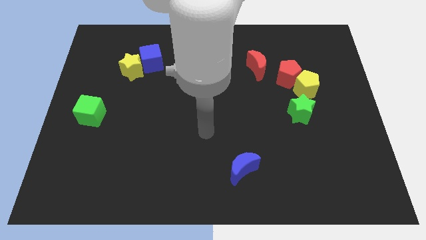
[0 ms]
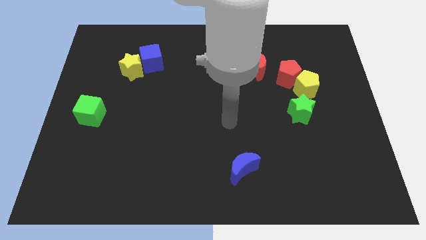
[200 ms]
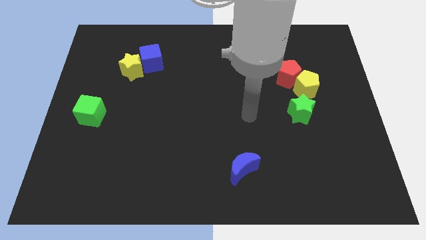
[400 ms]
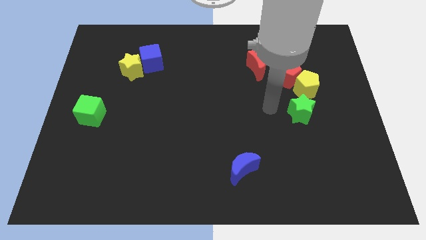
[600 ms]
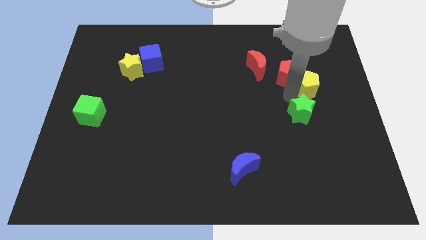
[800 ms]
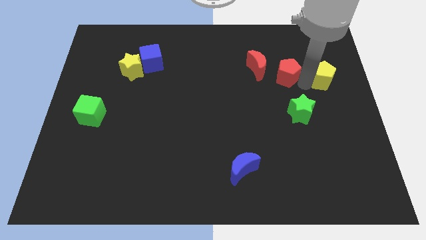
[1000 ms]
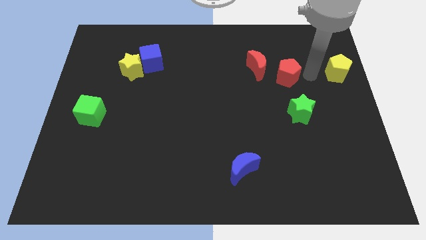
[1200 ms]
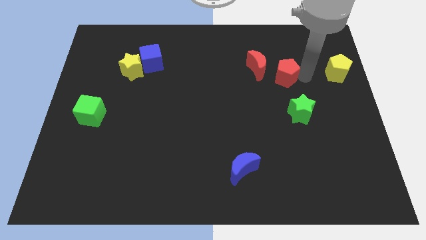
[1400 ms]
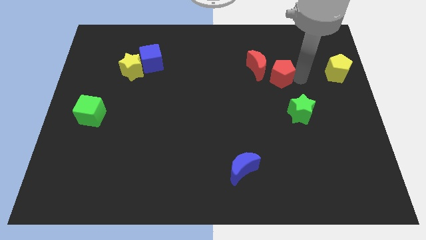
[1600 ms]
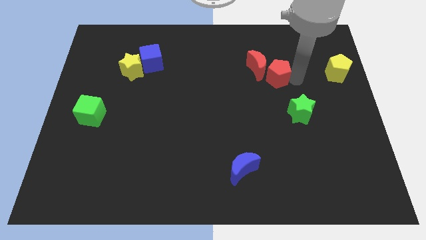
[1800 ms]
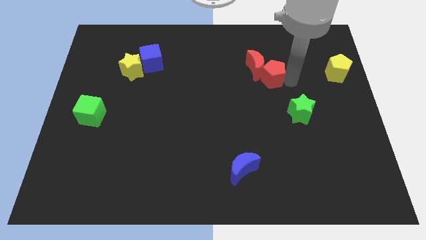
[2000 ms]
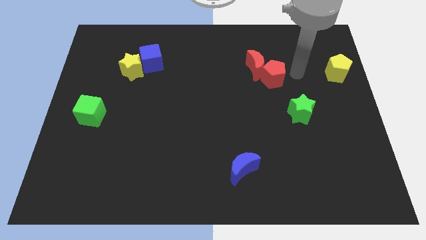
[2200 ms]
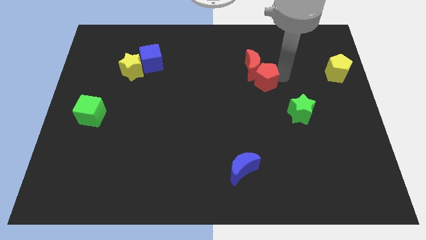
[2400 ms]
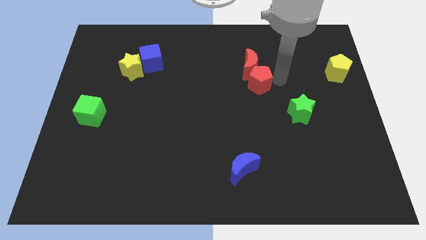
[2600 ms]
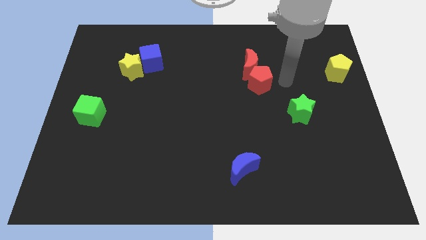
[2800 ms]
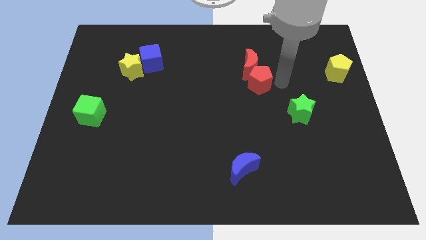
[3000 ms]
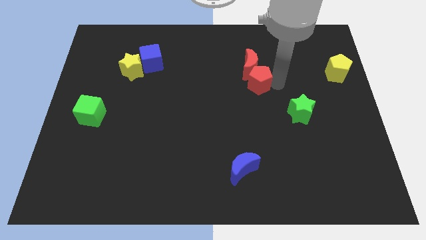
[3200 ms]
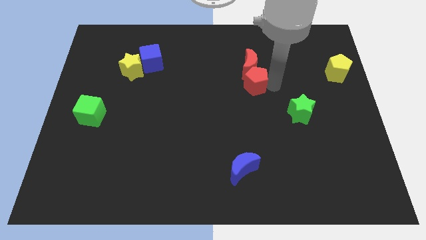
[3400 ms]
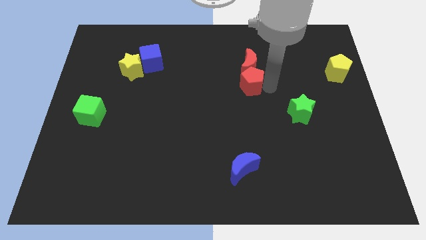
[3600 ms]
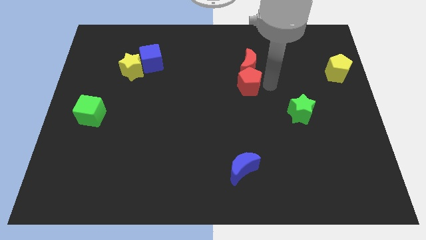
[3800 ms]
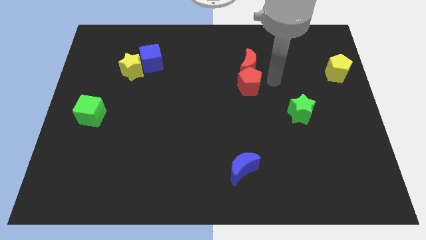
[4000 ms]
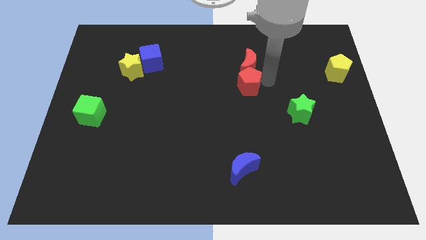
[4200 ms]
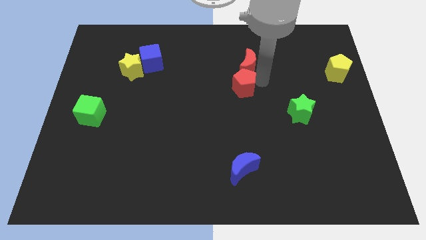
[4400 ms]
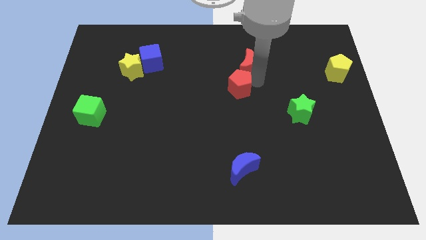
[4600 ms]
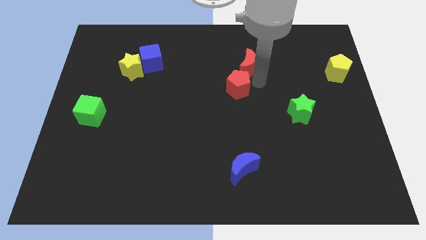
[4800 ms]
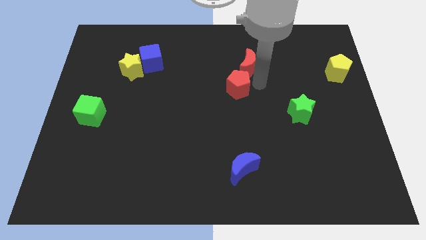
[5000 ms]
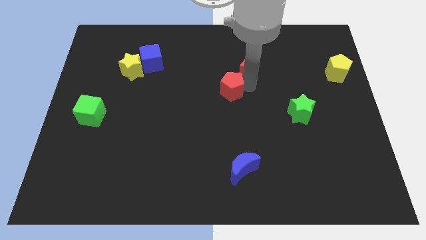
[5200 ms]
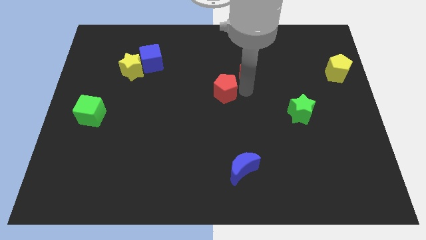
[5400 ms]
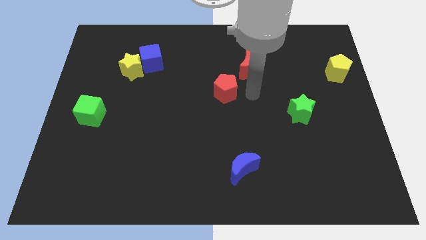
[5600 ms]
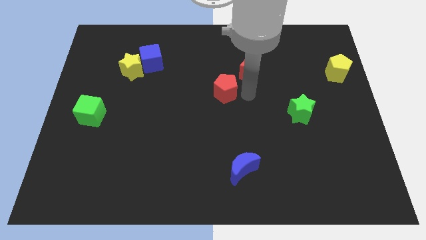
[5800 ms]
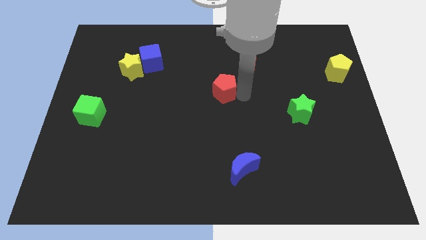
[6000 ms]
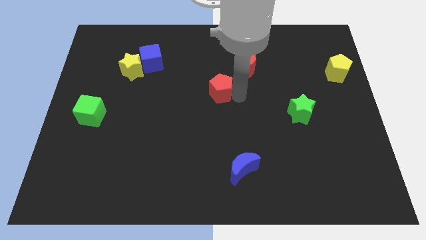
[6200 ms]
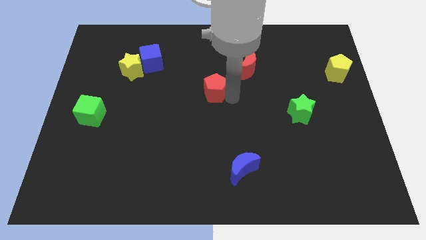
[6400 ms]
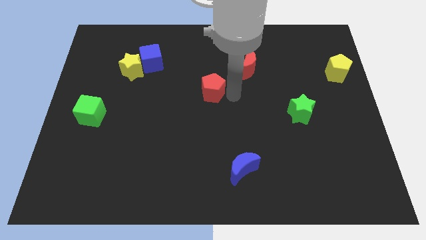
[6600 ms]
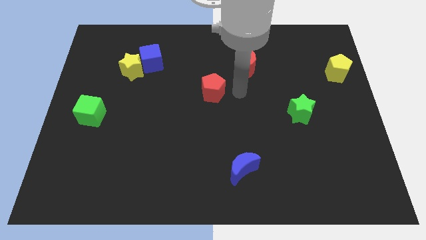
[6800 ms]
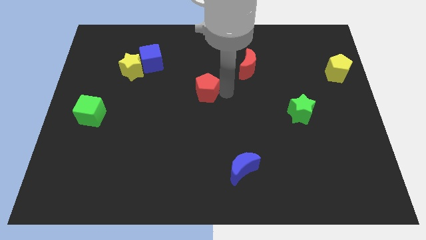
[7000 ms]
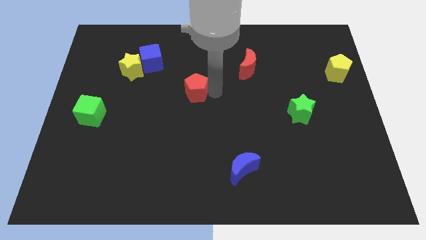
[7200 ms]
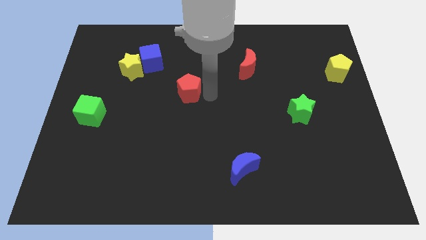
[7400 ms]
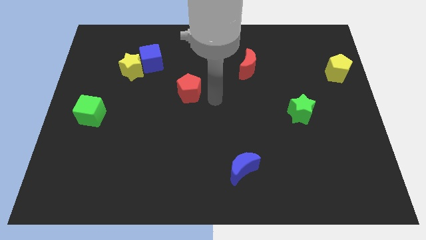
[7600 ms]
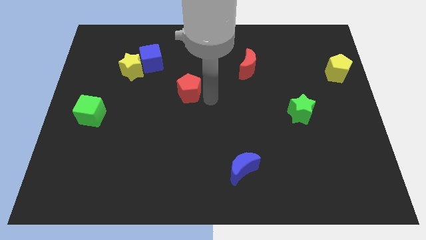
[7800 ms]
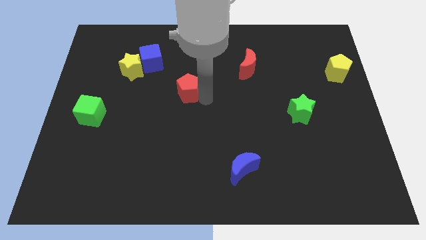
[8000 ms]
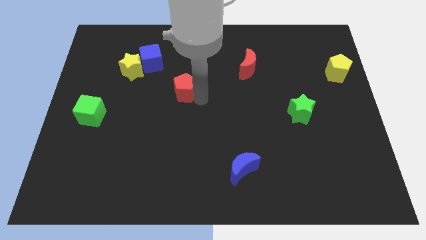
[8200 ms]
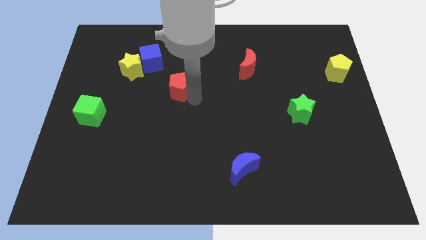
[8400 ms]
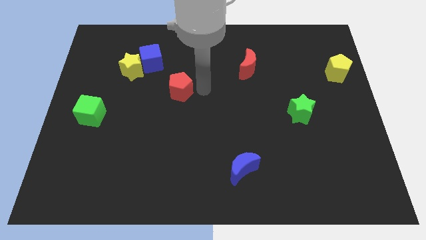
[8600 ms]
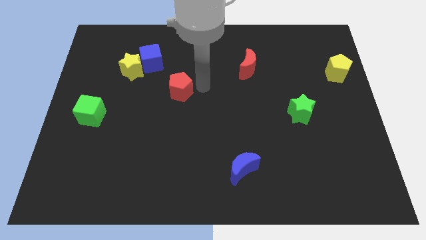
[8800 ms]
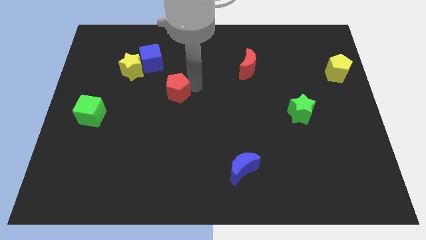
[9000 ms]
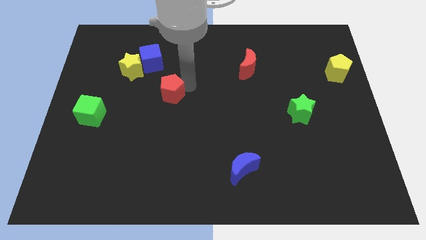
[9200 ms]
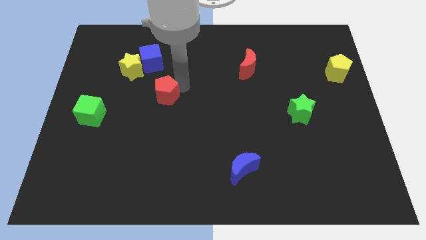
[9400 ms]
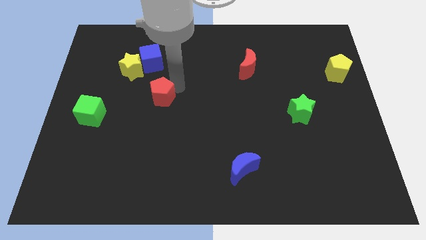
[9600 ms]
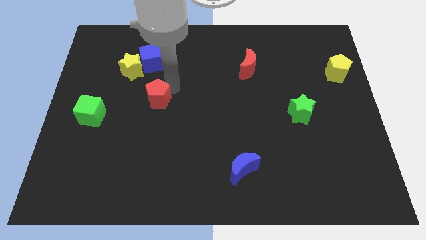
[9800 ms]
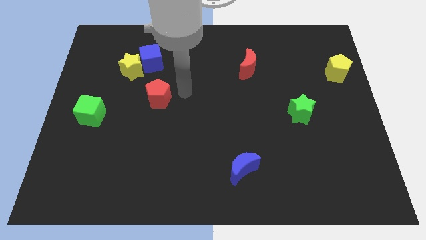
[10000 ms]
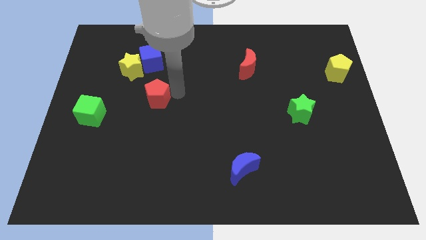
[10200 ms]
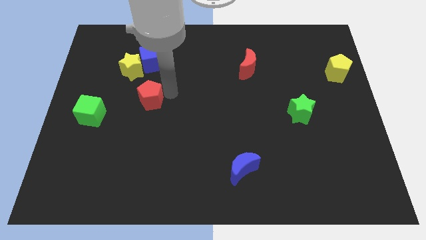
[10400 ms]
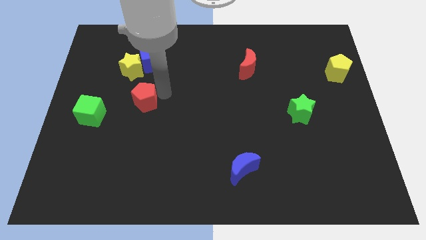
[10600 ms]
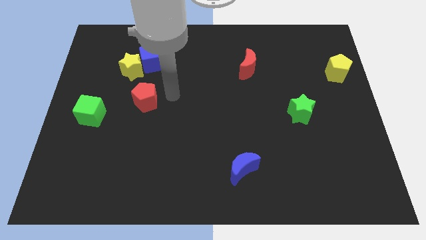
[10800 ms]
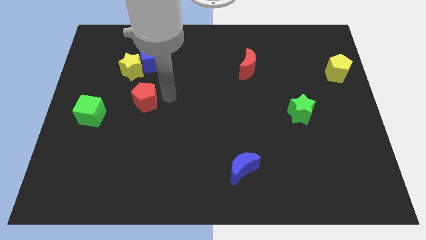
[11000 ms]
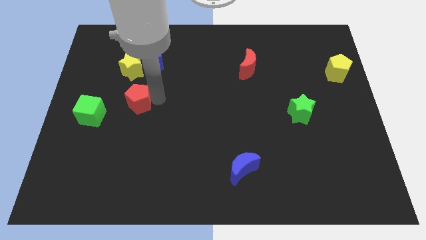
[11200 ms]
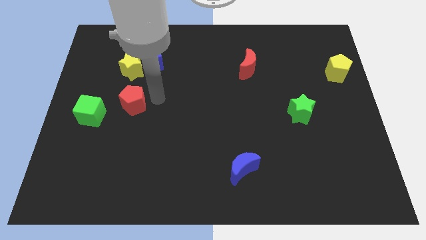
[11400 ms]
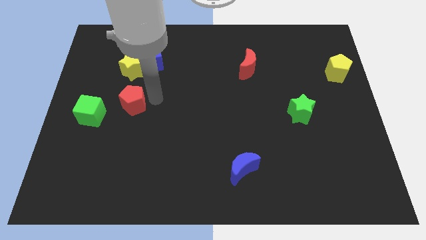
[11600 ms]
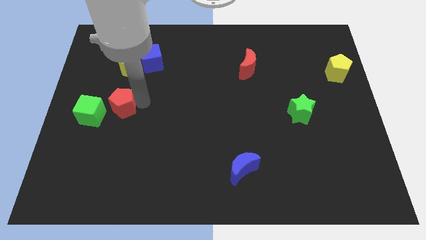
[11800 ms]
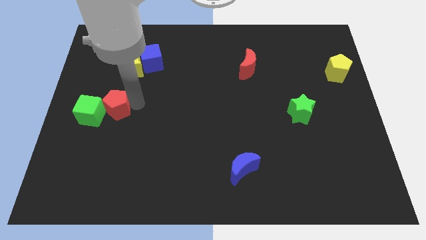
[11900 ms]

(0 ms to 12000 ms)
put the red pentagon close to the green cube
